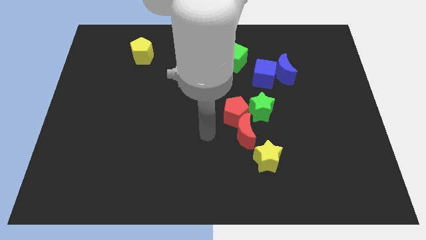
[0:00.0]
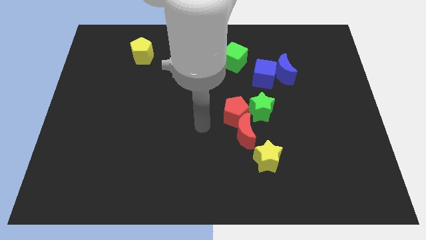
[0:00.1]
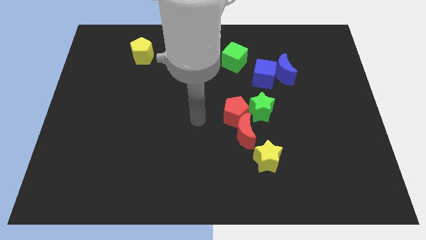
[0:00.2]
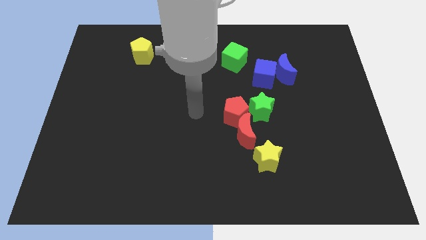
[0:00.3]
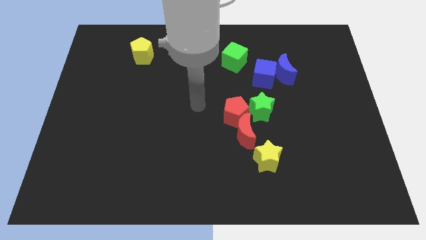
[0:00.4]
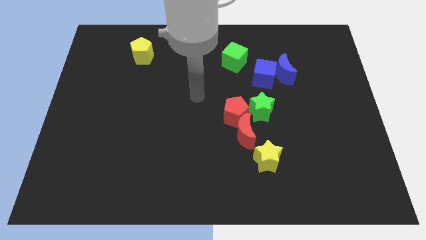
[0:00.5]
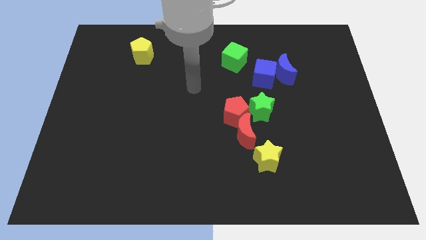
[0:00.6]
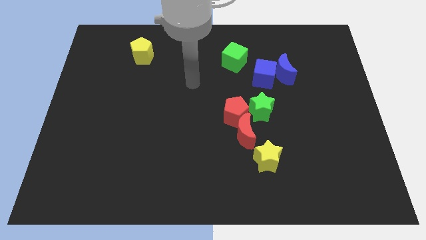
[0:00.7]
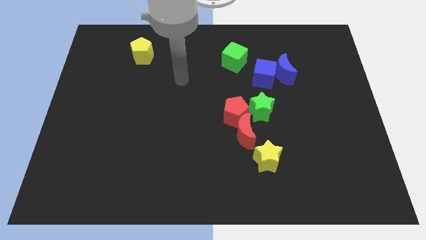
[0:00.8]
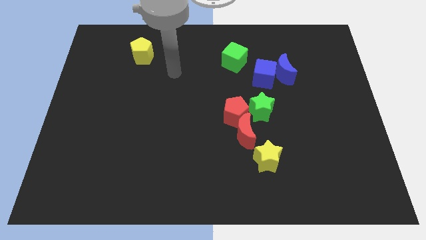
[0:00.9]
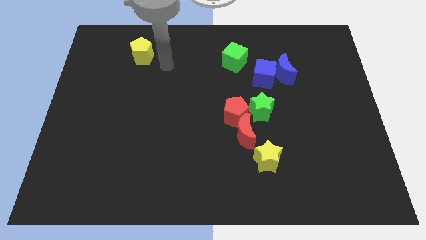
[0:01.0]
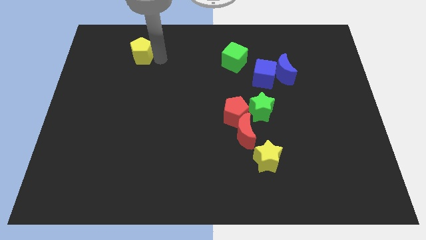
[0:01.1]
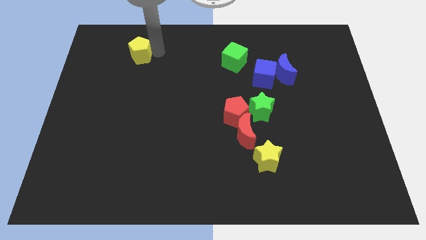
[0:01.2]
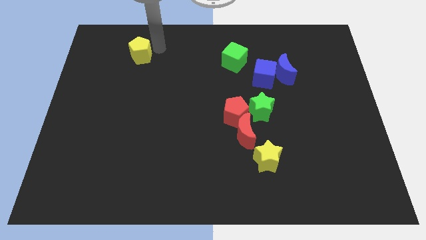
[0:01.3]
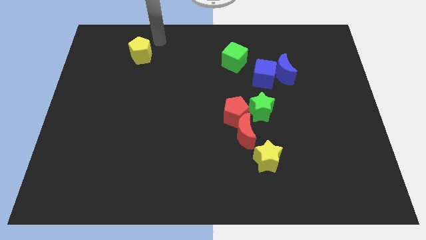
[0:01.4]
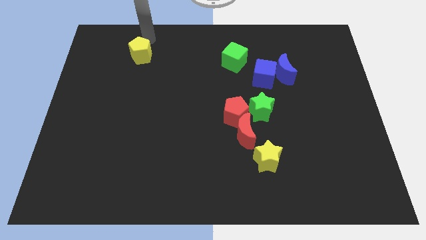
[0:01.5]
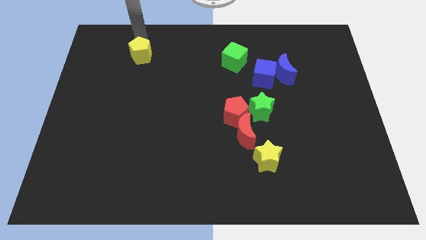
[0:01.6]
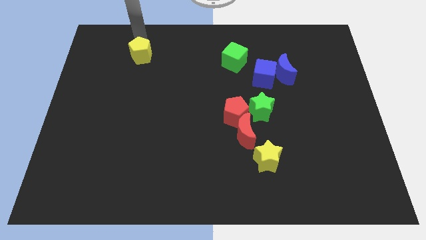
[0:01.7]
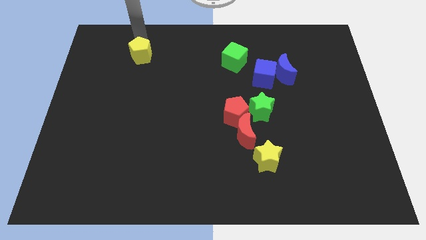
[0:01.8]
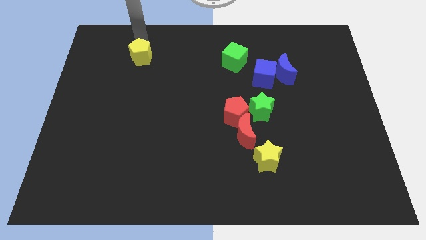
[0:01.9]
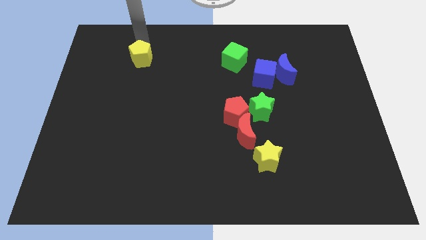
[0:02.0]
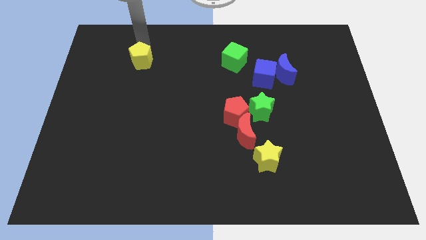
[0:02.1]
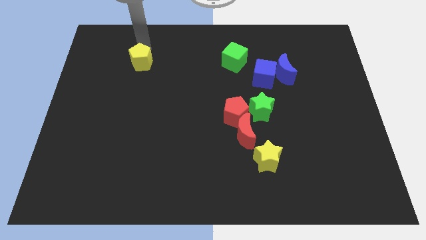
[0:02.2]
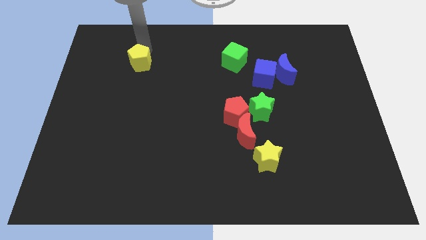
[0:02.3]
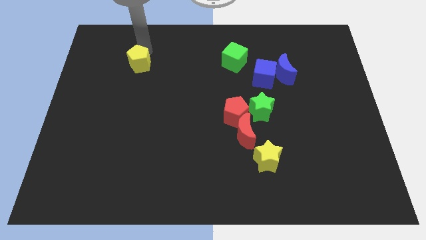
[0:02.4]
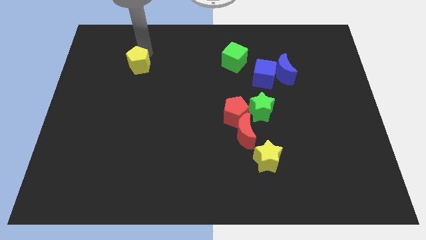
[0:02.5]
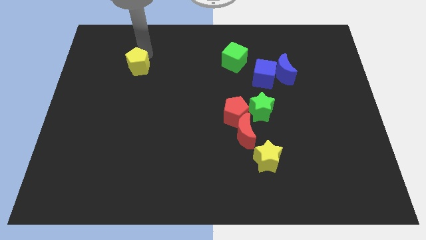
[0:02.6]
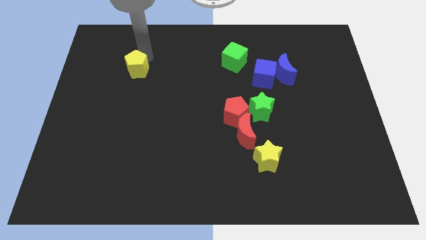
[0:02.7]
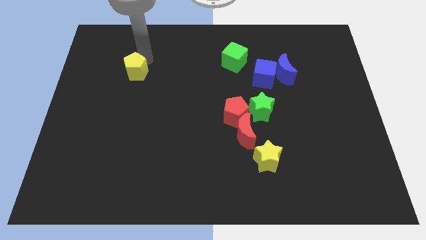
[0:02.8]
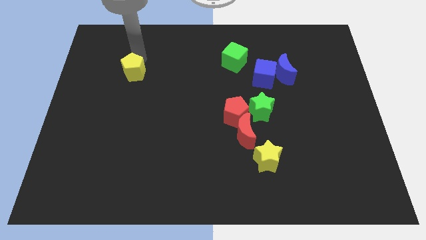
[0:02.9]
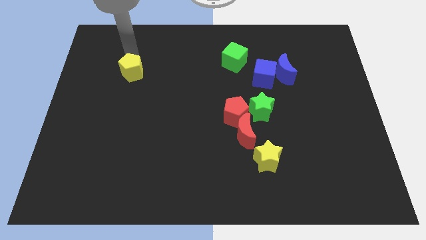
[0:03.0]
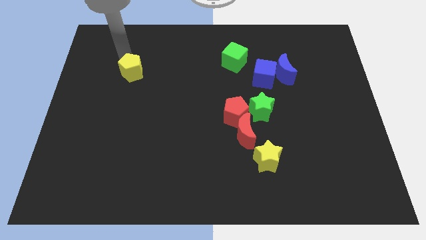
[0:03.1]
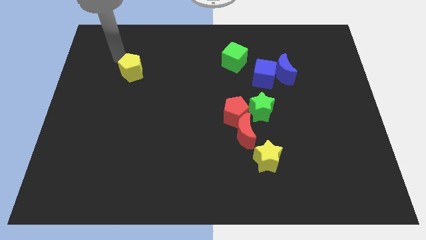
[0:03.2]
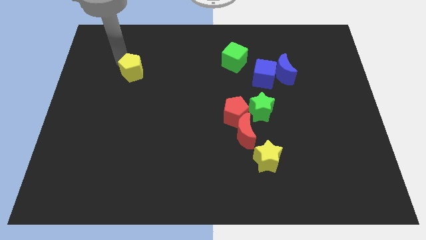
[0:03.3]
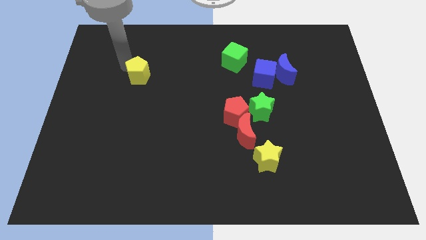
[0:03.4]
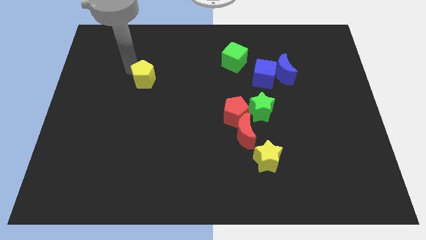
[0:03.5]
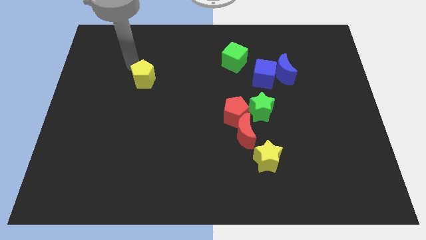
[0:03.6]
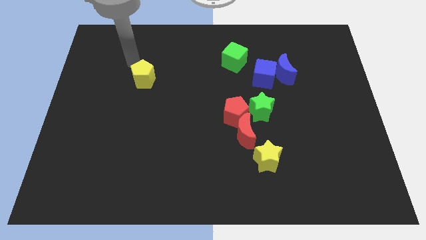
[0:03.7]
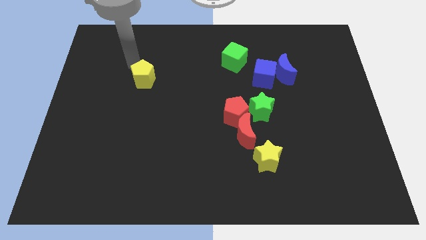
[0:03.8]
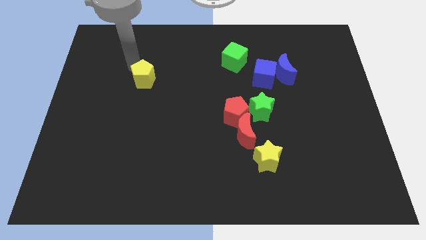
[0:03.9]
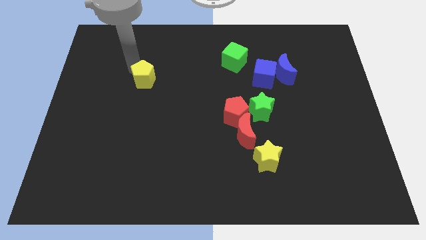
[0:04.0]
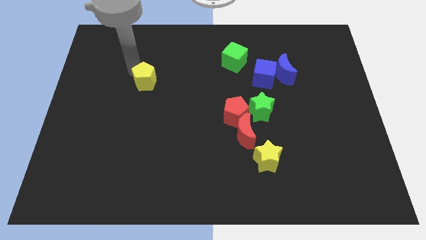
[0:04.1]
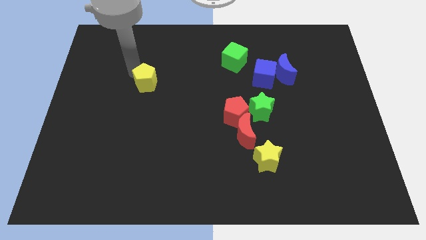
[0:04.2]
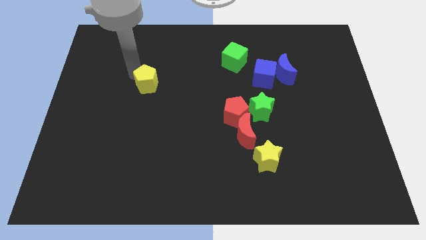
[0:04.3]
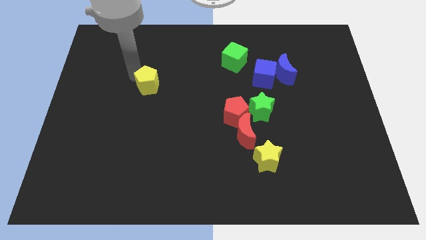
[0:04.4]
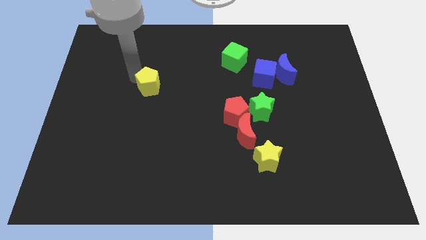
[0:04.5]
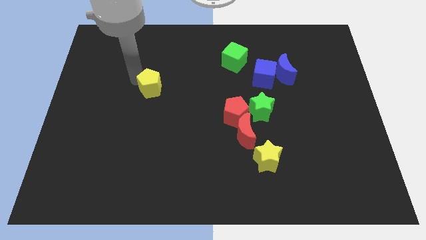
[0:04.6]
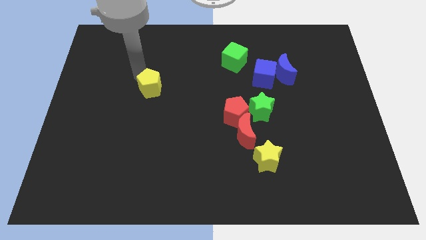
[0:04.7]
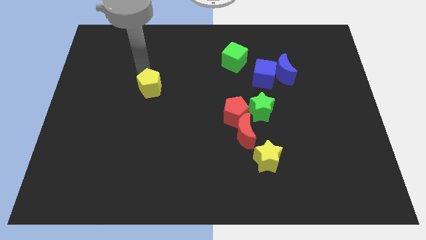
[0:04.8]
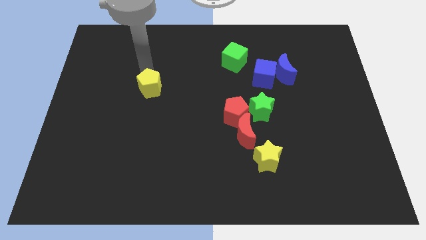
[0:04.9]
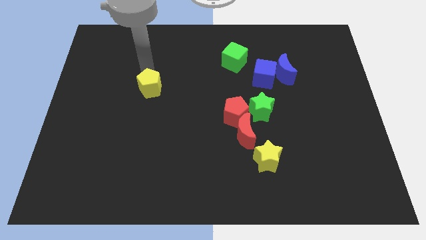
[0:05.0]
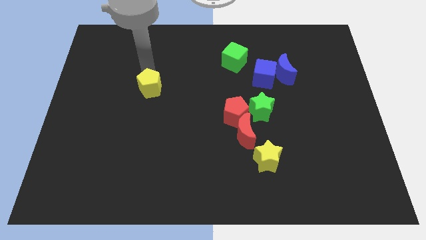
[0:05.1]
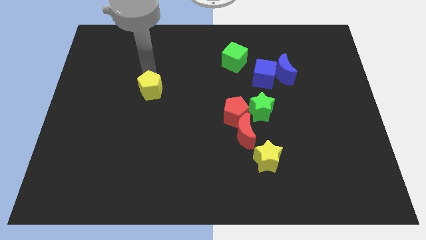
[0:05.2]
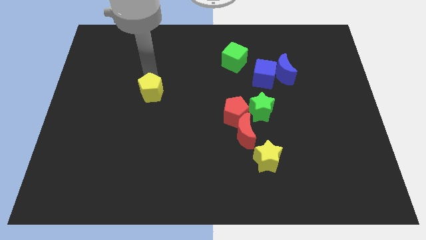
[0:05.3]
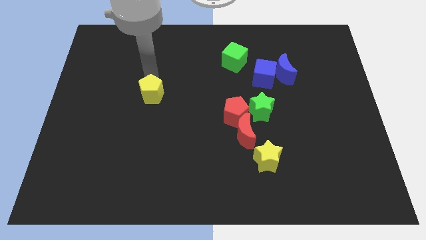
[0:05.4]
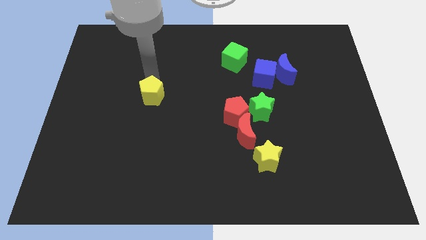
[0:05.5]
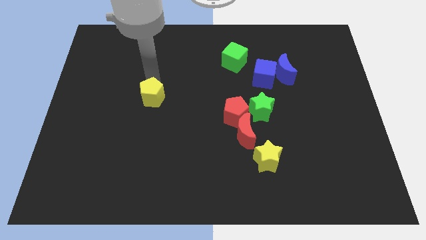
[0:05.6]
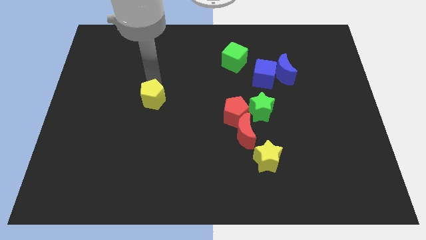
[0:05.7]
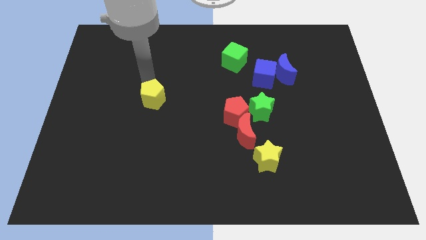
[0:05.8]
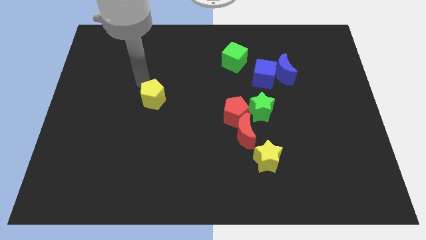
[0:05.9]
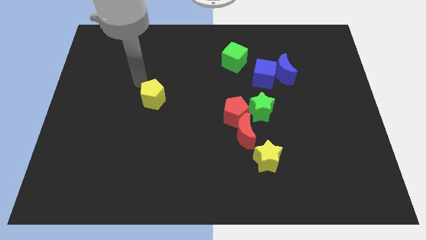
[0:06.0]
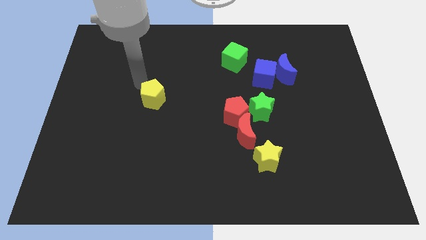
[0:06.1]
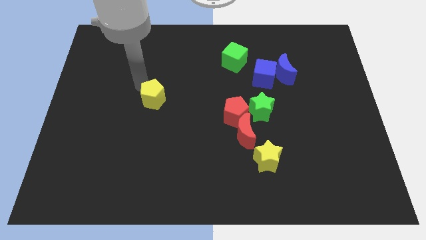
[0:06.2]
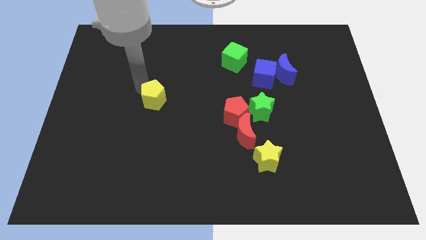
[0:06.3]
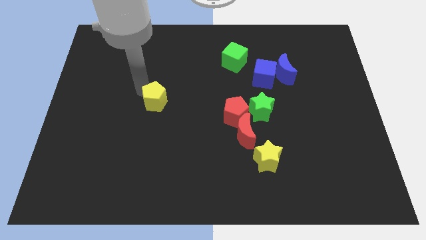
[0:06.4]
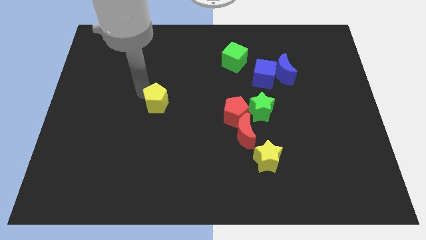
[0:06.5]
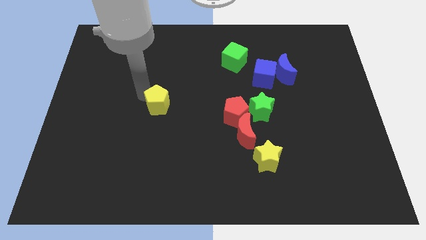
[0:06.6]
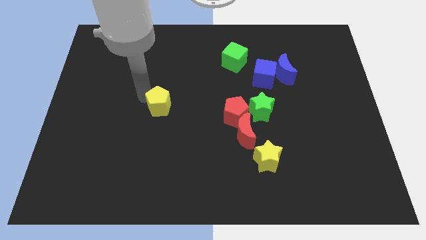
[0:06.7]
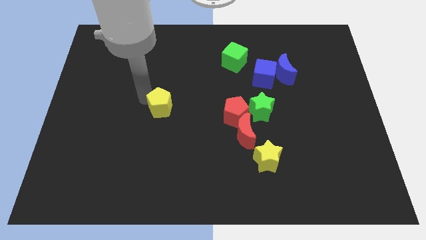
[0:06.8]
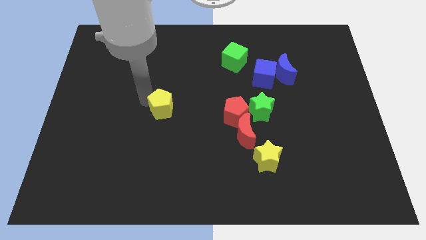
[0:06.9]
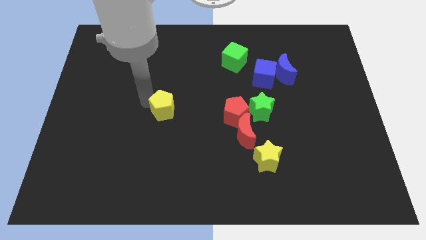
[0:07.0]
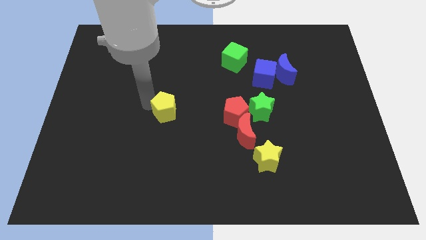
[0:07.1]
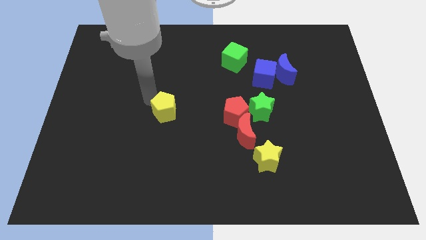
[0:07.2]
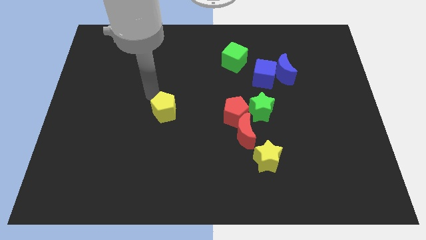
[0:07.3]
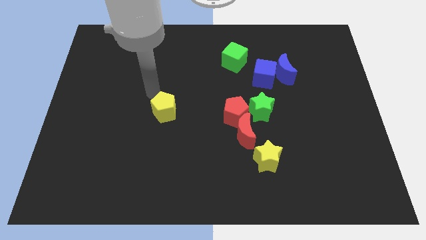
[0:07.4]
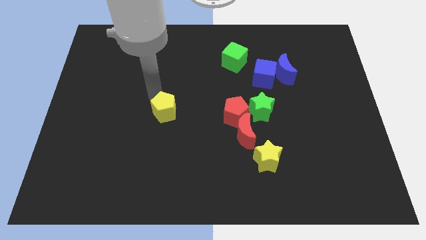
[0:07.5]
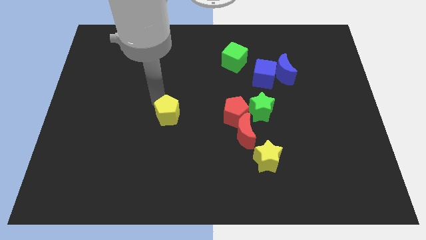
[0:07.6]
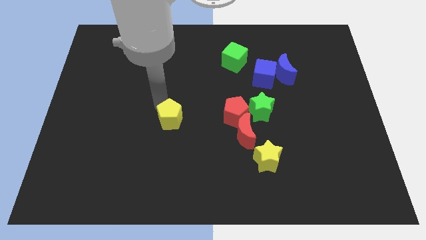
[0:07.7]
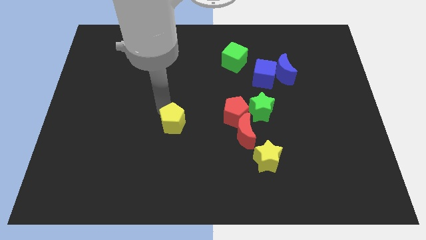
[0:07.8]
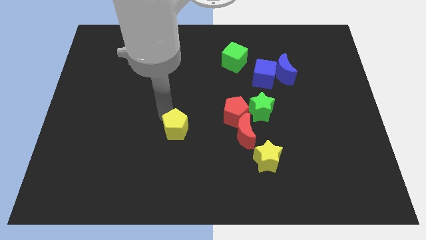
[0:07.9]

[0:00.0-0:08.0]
move the yellow pentagon to the left side of the red moon

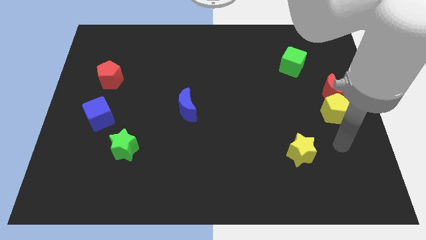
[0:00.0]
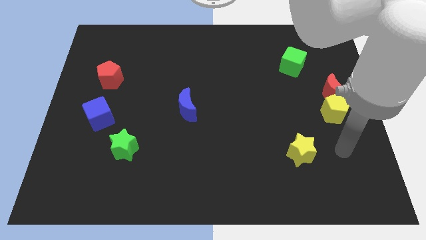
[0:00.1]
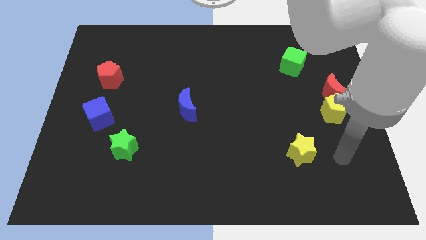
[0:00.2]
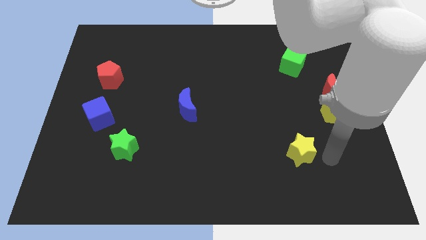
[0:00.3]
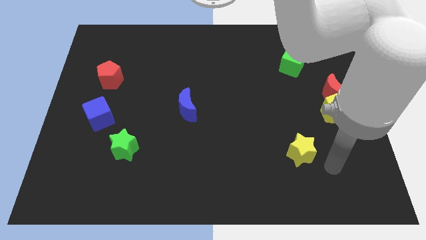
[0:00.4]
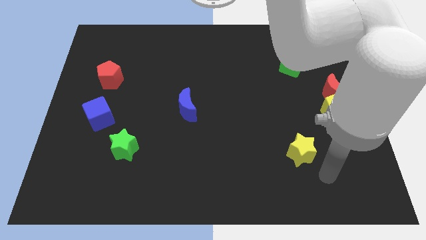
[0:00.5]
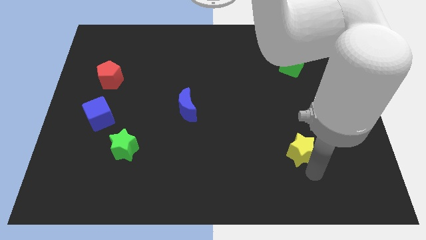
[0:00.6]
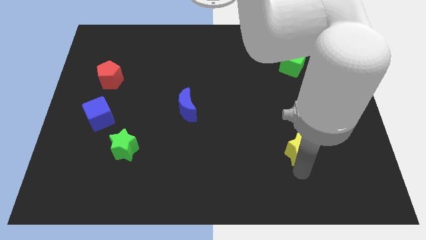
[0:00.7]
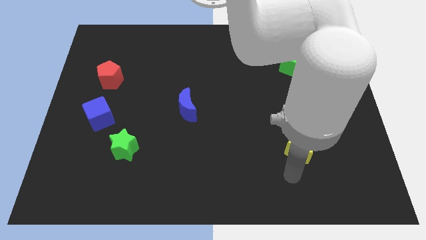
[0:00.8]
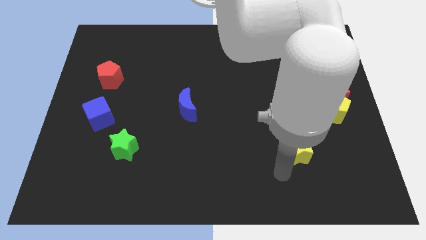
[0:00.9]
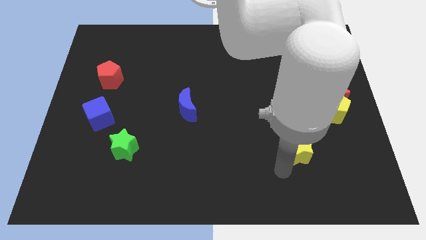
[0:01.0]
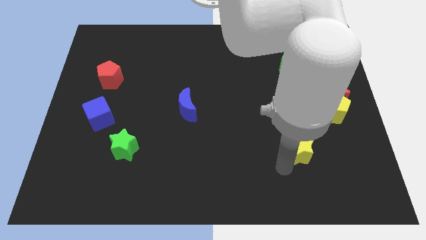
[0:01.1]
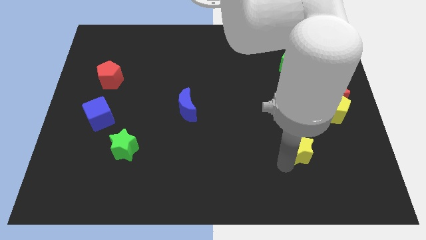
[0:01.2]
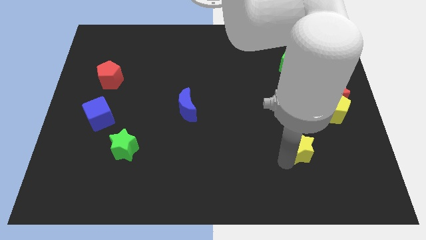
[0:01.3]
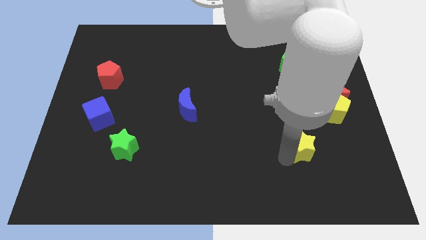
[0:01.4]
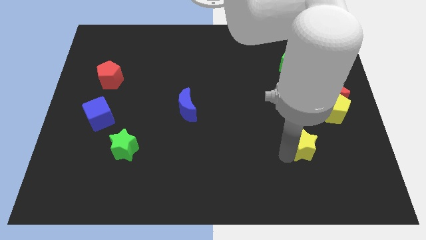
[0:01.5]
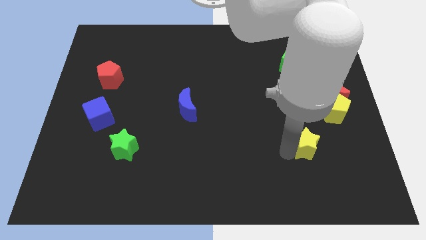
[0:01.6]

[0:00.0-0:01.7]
put the yellow star diagonally down and to the left of the yellow pentagon
